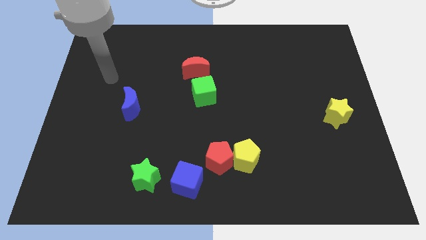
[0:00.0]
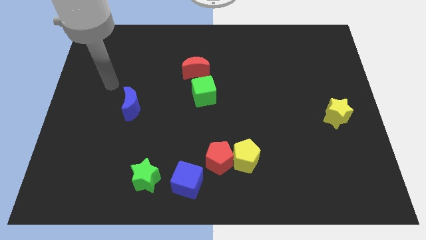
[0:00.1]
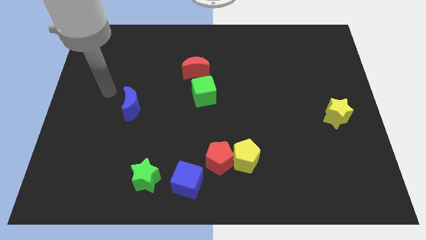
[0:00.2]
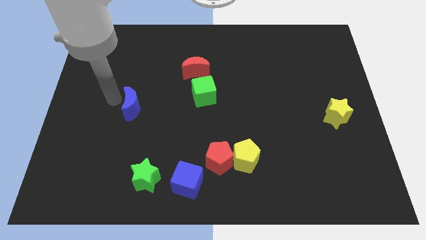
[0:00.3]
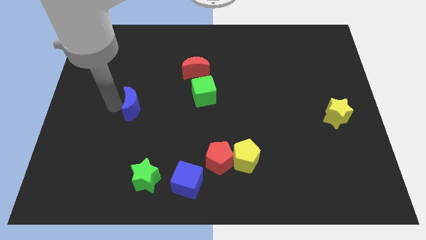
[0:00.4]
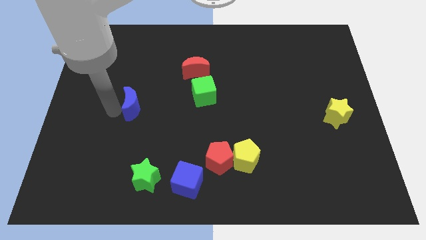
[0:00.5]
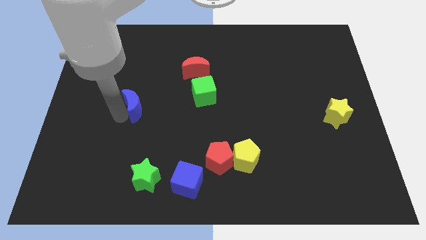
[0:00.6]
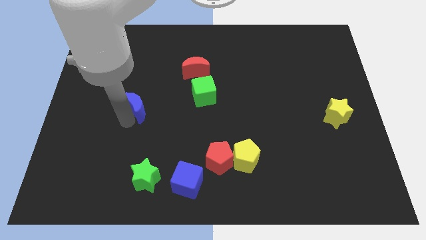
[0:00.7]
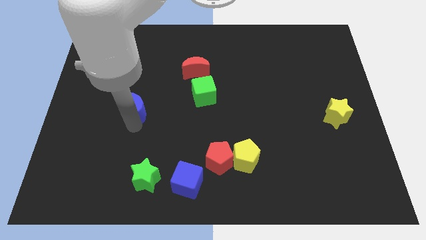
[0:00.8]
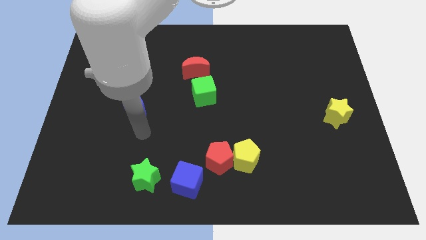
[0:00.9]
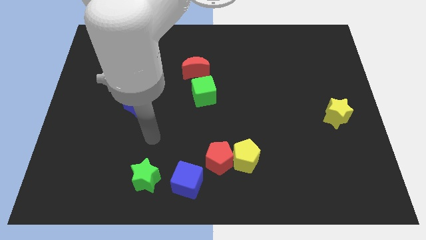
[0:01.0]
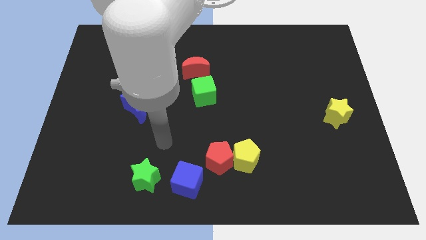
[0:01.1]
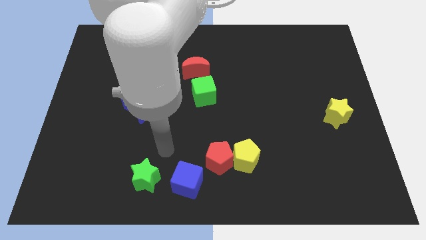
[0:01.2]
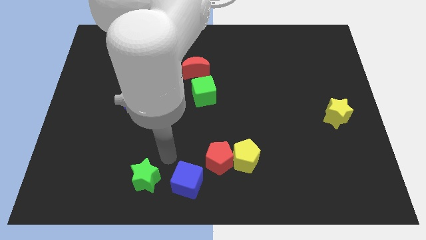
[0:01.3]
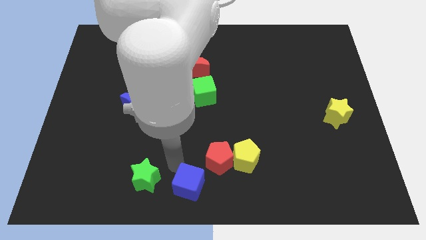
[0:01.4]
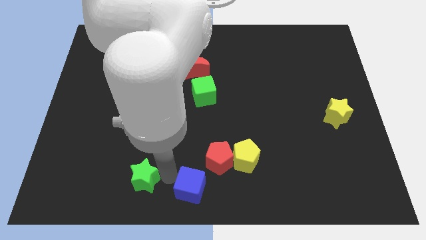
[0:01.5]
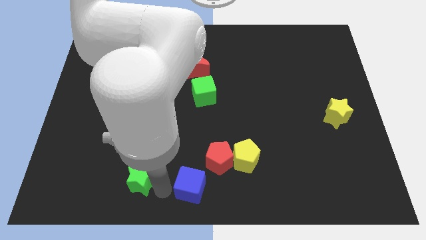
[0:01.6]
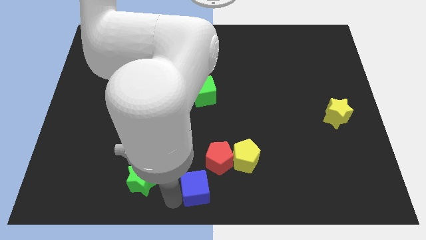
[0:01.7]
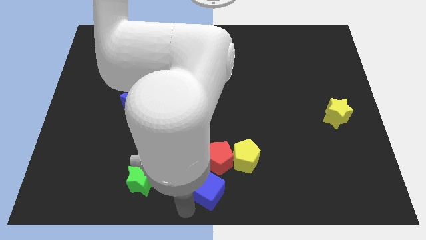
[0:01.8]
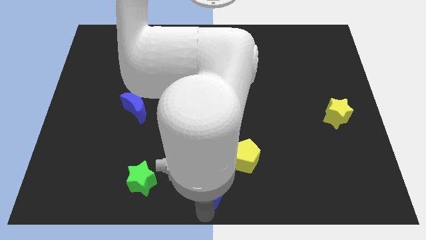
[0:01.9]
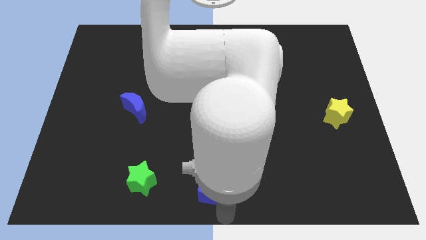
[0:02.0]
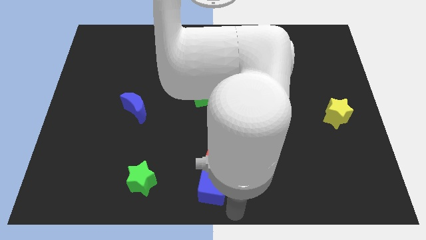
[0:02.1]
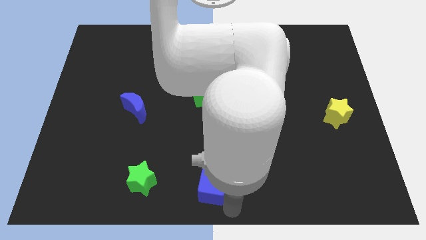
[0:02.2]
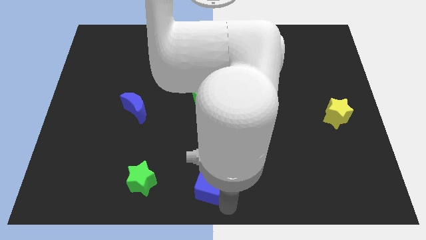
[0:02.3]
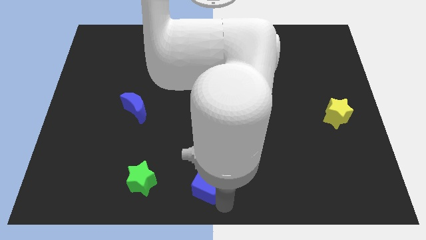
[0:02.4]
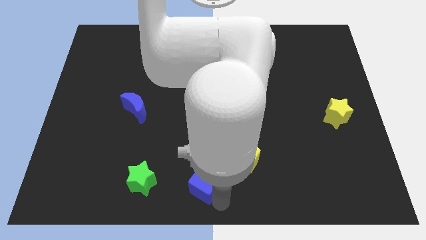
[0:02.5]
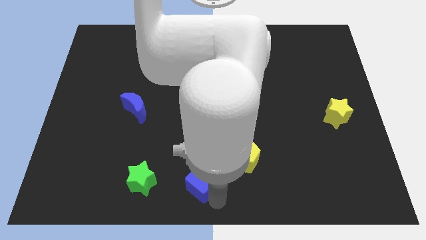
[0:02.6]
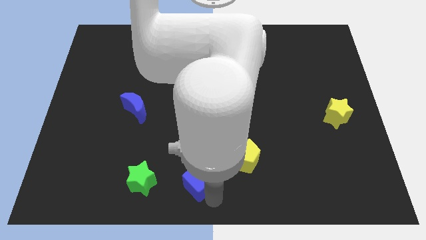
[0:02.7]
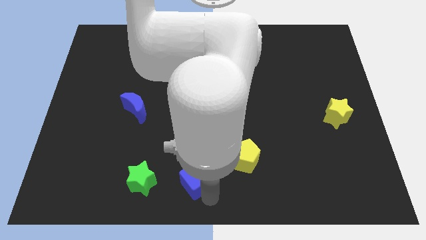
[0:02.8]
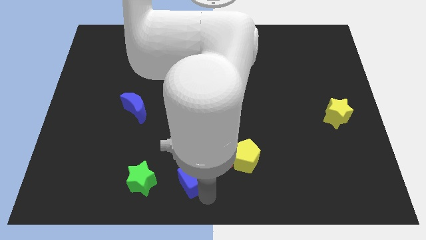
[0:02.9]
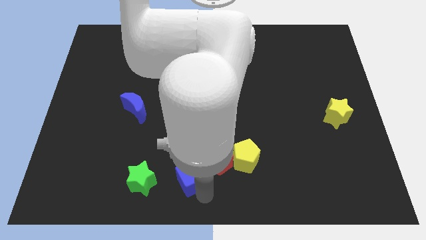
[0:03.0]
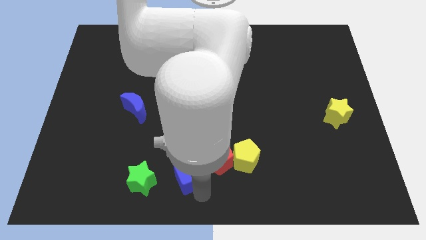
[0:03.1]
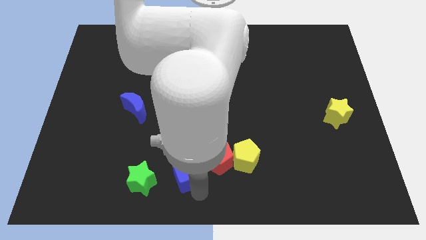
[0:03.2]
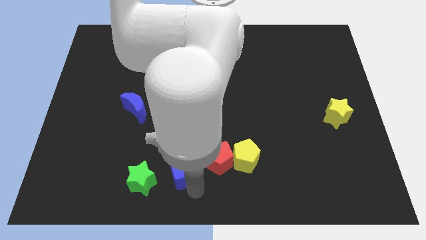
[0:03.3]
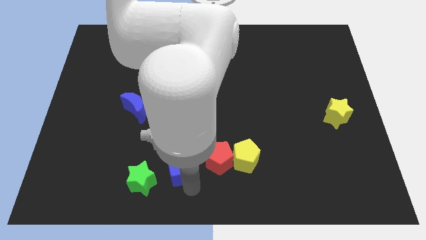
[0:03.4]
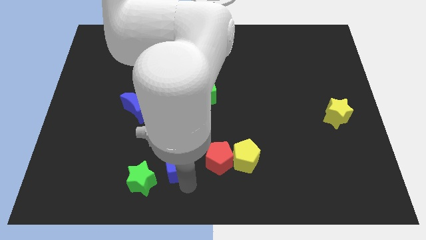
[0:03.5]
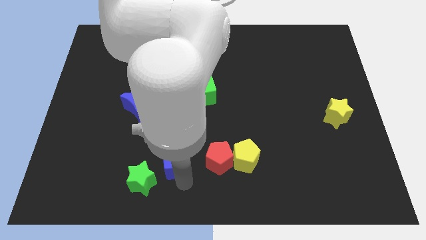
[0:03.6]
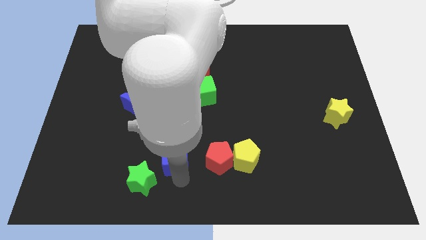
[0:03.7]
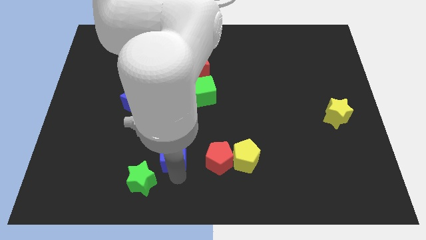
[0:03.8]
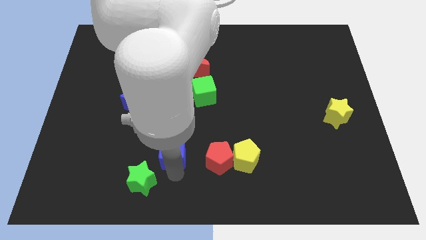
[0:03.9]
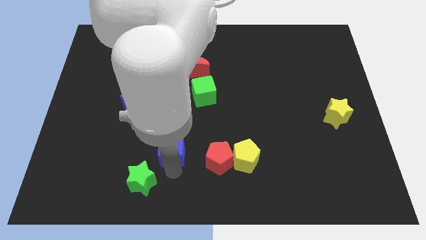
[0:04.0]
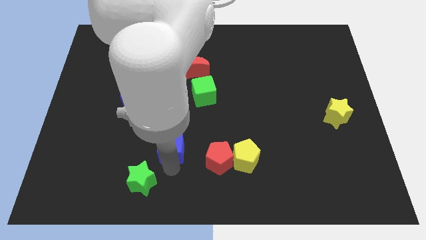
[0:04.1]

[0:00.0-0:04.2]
move the blue cube up a little bit

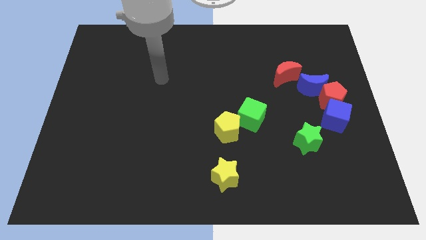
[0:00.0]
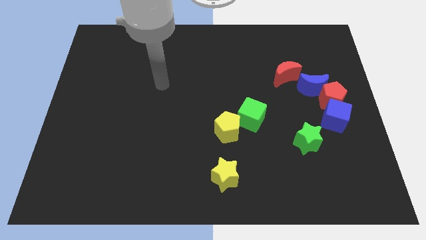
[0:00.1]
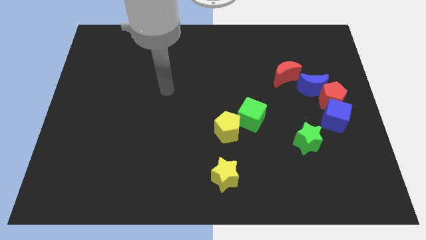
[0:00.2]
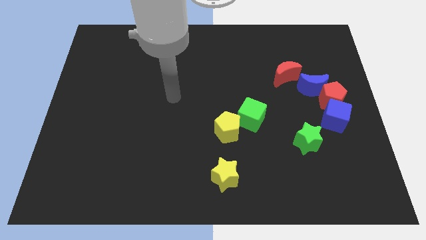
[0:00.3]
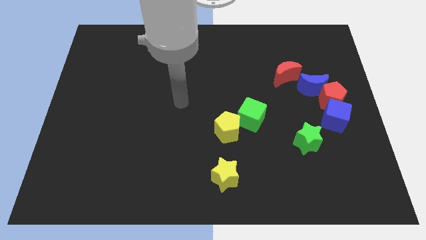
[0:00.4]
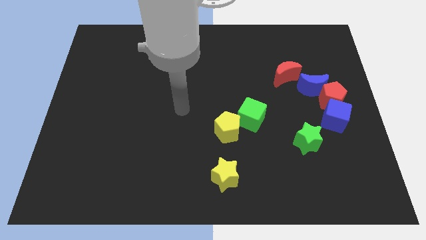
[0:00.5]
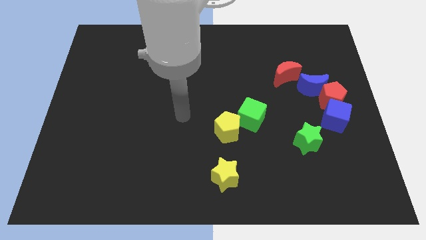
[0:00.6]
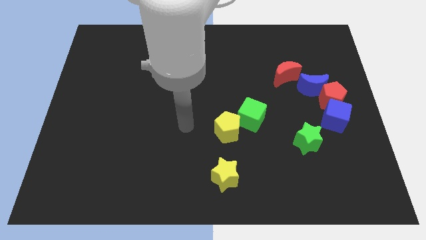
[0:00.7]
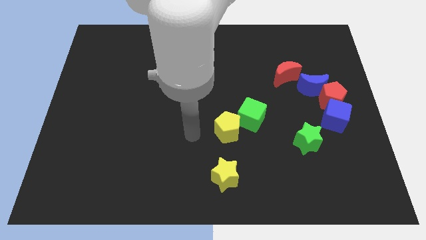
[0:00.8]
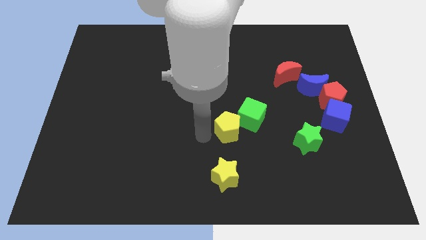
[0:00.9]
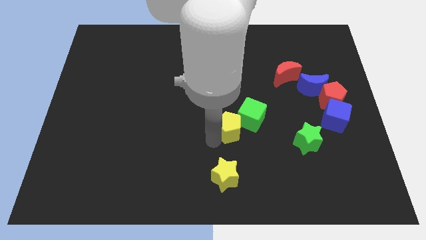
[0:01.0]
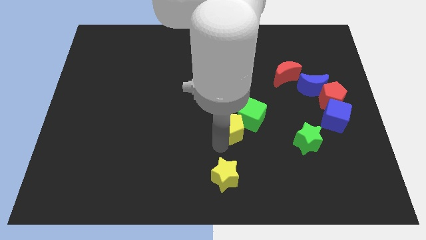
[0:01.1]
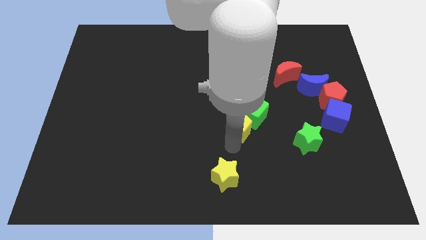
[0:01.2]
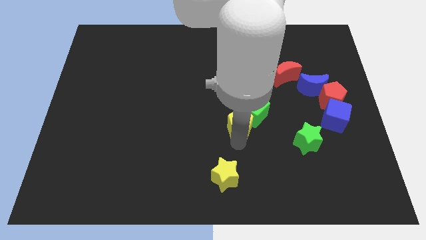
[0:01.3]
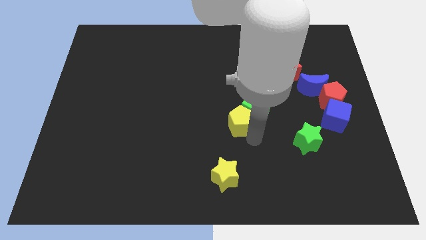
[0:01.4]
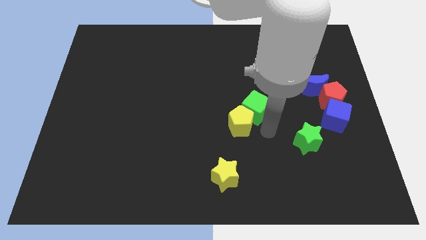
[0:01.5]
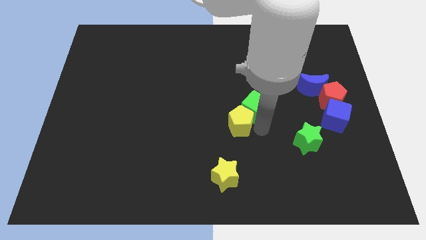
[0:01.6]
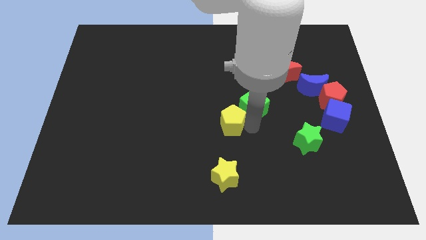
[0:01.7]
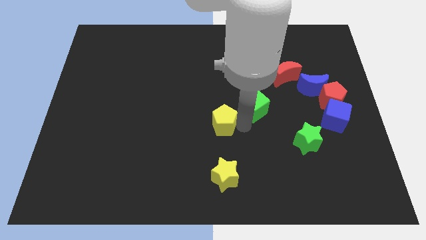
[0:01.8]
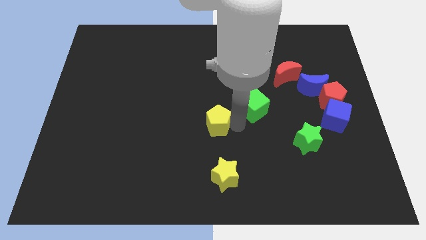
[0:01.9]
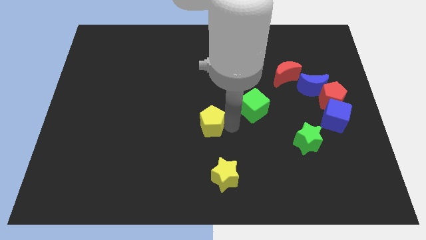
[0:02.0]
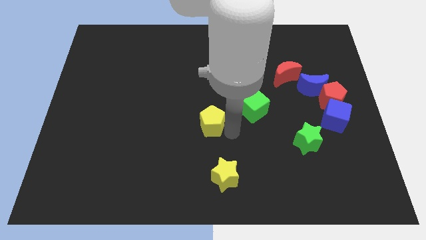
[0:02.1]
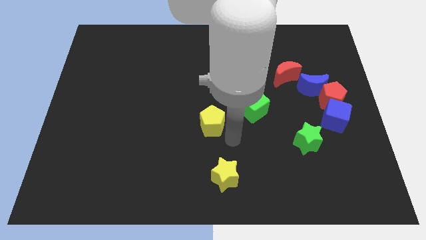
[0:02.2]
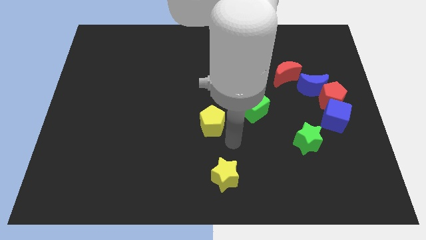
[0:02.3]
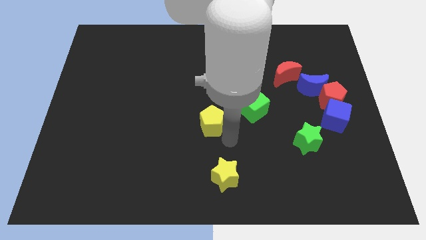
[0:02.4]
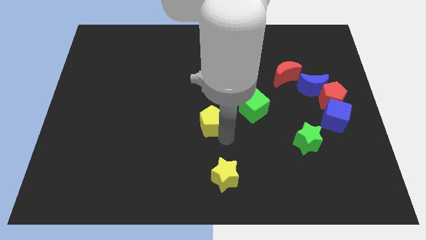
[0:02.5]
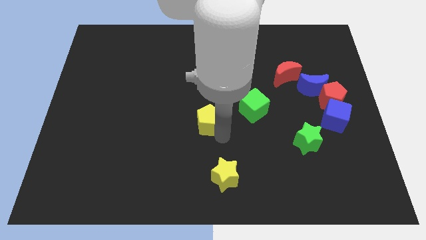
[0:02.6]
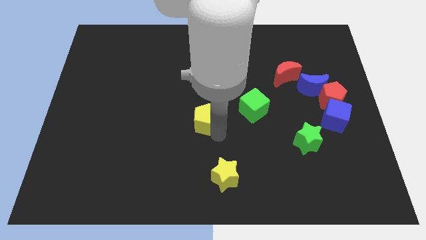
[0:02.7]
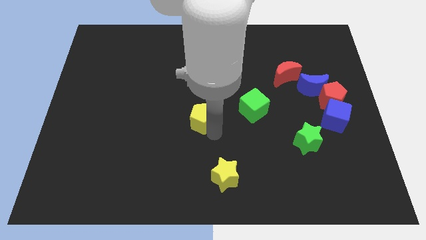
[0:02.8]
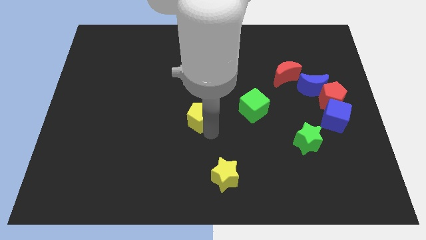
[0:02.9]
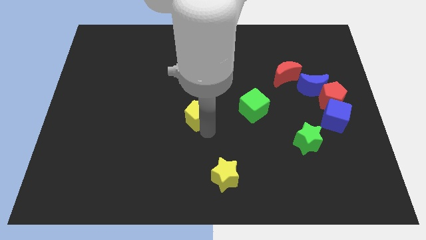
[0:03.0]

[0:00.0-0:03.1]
slide the yellow pentagon a bit up and left

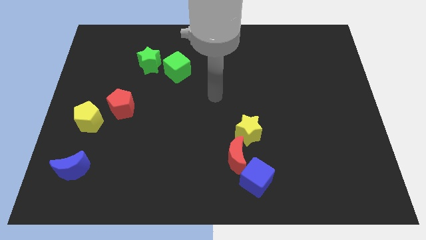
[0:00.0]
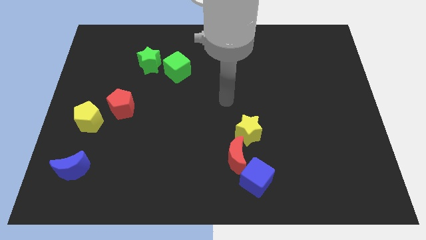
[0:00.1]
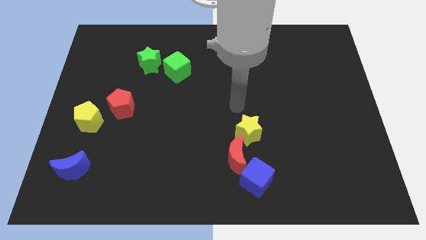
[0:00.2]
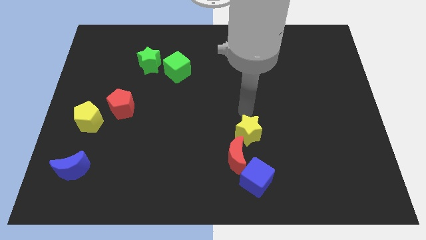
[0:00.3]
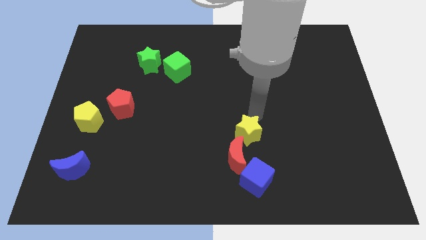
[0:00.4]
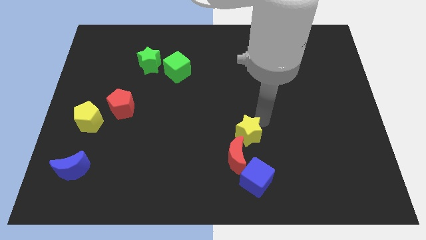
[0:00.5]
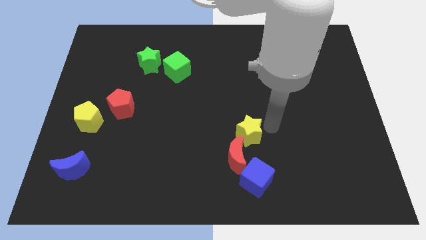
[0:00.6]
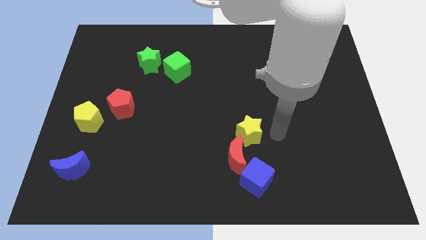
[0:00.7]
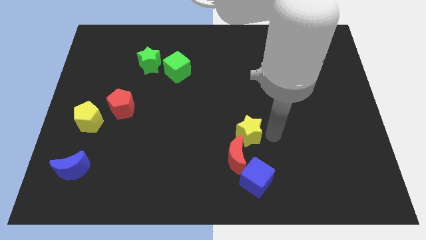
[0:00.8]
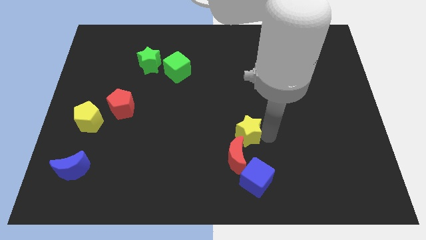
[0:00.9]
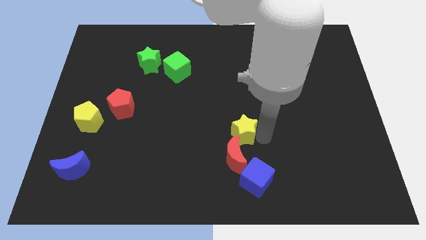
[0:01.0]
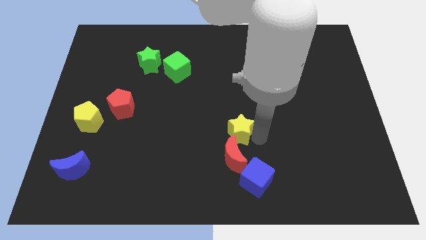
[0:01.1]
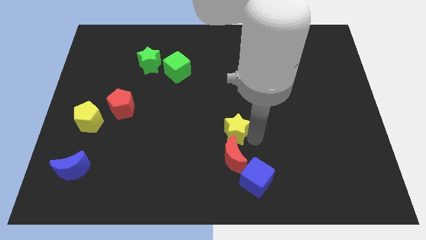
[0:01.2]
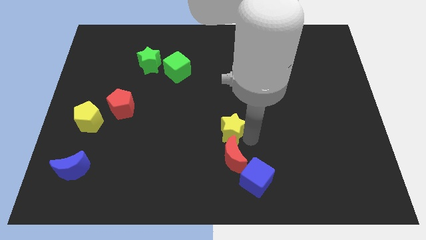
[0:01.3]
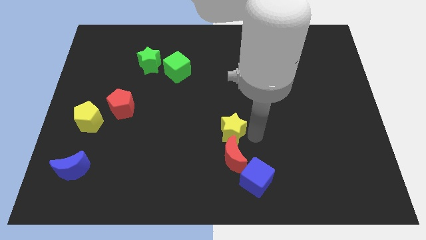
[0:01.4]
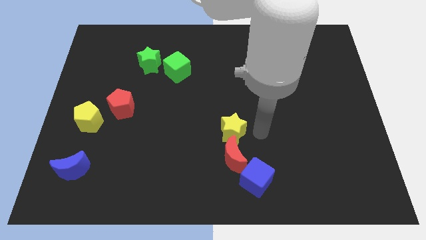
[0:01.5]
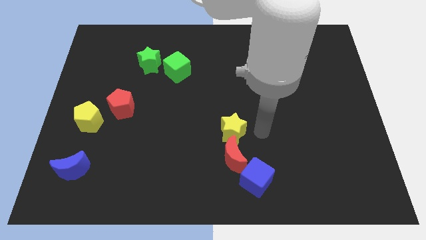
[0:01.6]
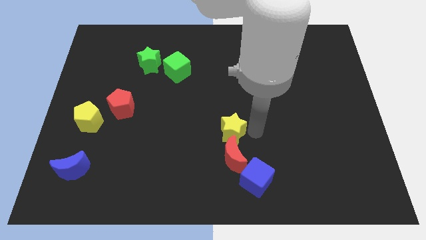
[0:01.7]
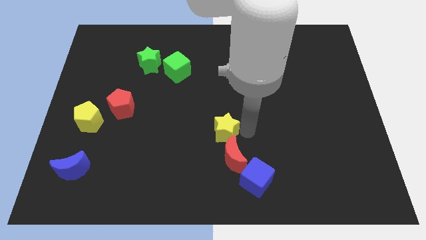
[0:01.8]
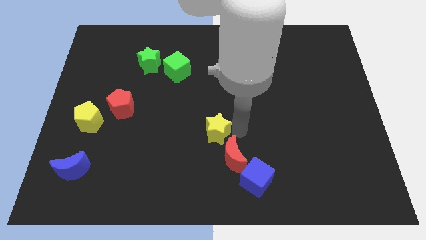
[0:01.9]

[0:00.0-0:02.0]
slightly push the yellow star to the left
